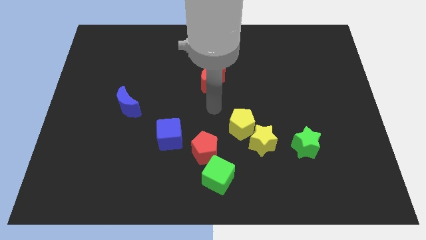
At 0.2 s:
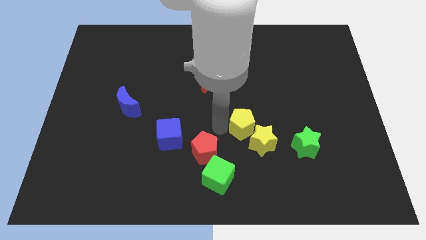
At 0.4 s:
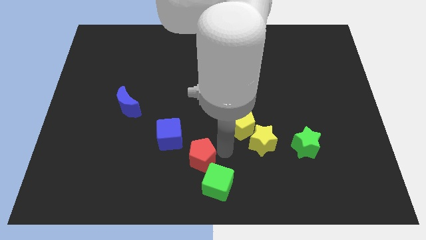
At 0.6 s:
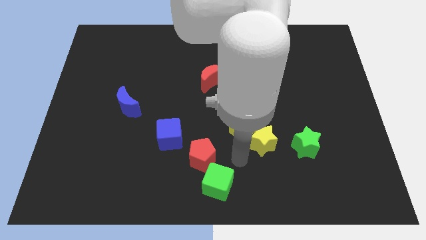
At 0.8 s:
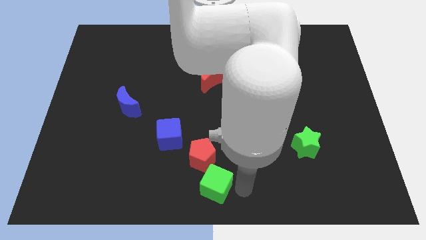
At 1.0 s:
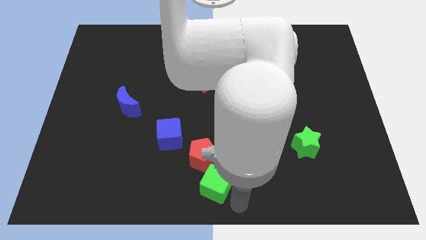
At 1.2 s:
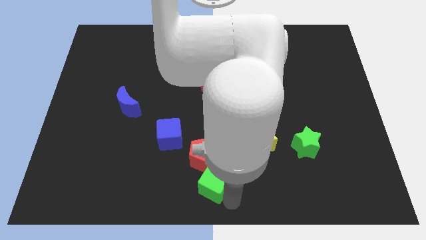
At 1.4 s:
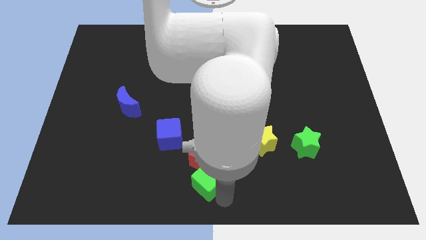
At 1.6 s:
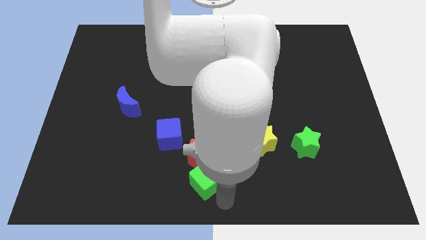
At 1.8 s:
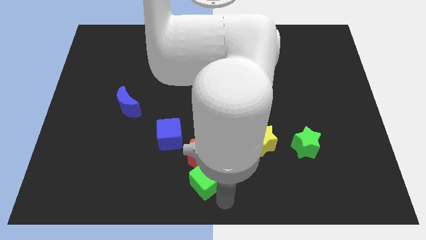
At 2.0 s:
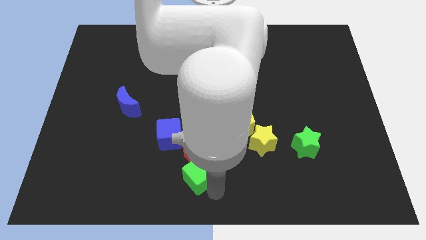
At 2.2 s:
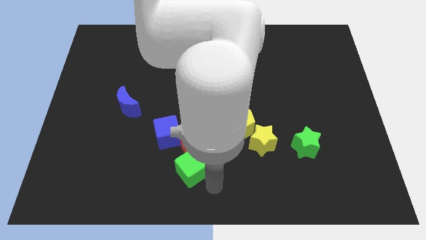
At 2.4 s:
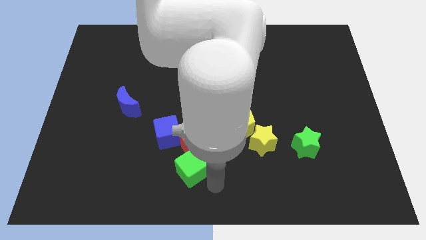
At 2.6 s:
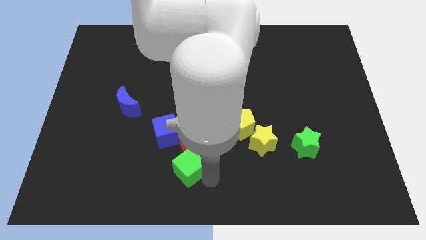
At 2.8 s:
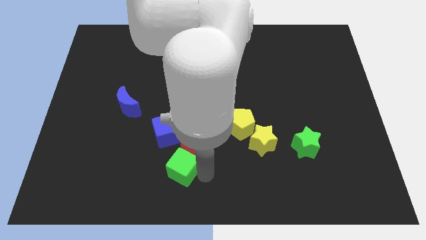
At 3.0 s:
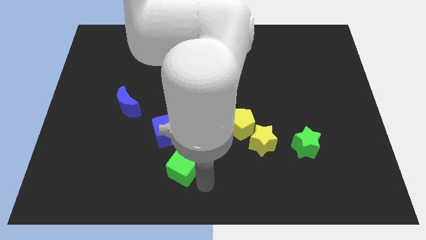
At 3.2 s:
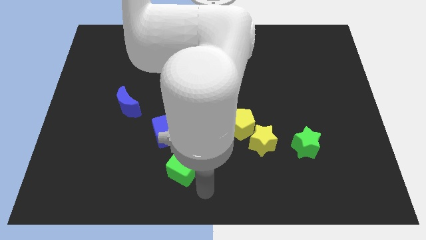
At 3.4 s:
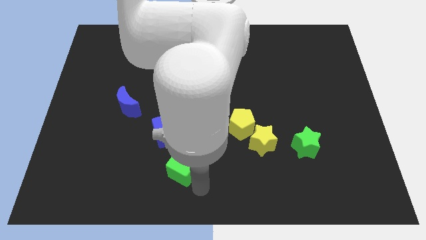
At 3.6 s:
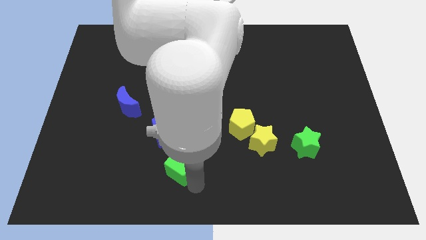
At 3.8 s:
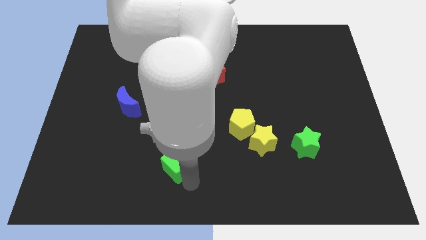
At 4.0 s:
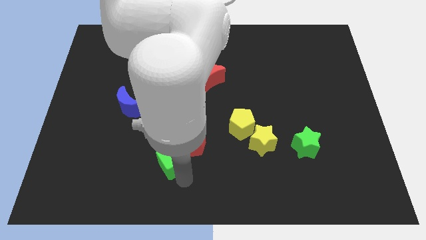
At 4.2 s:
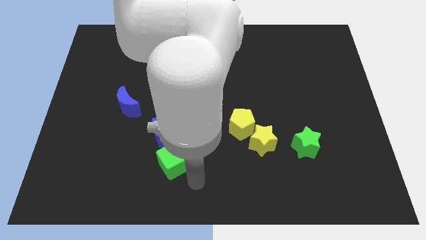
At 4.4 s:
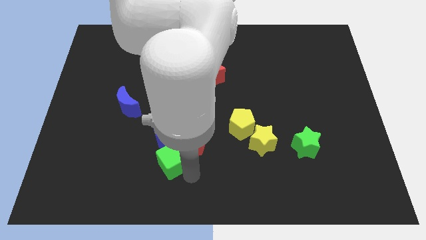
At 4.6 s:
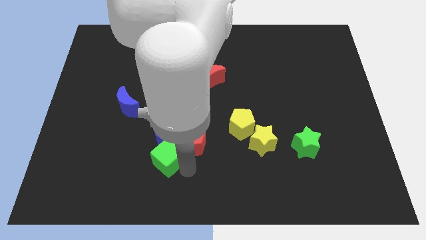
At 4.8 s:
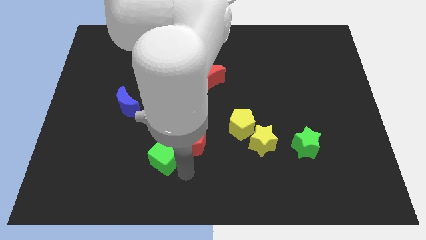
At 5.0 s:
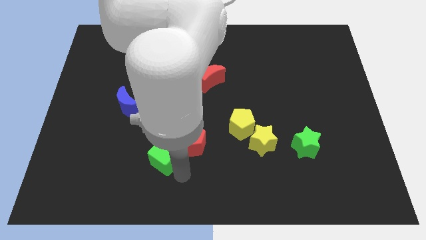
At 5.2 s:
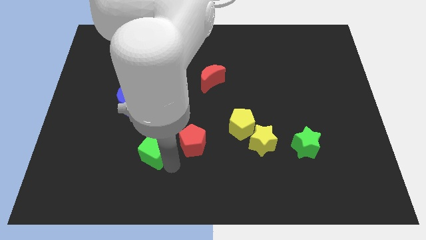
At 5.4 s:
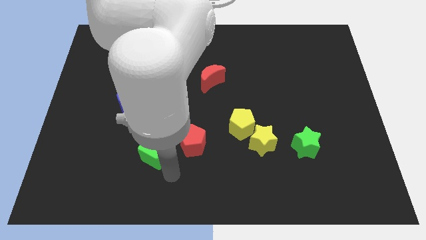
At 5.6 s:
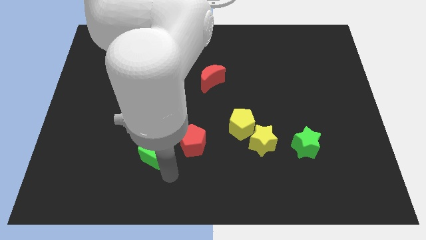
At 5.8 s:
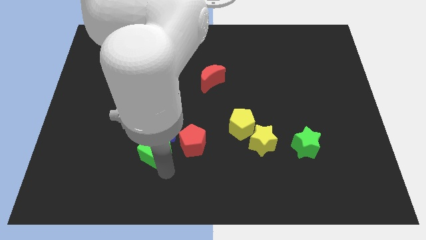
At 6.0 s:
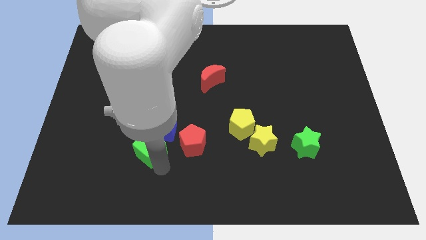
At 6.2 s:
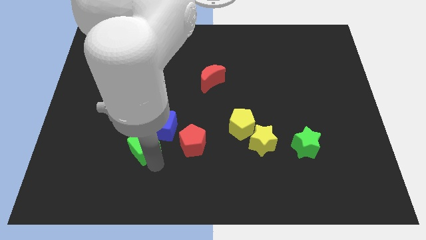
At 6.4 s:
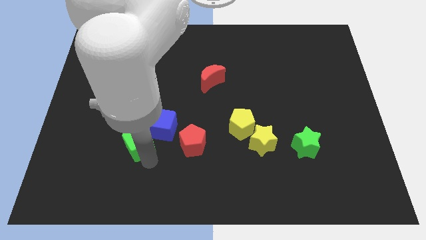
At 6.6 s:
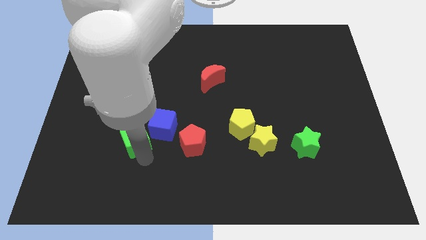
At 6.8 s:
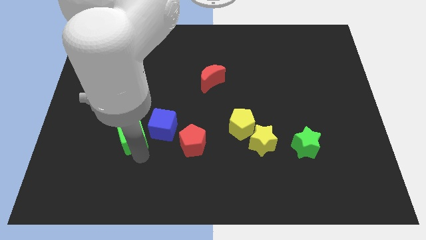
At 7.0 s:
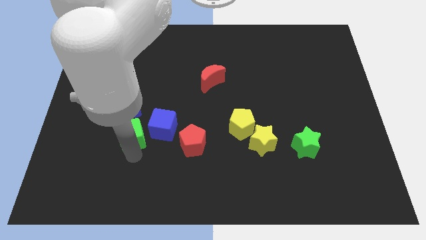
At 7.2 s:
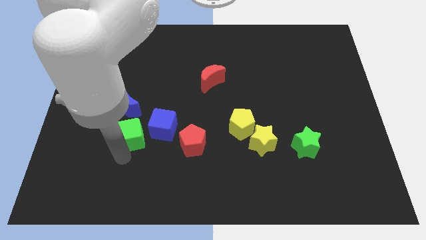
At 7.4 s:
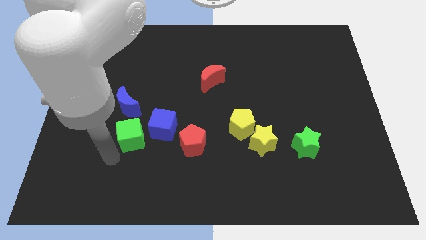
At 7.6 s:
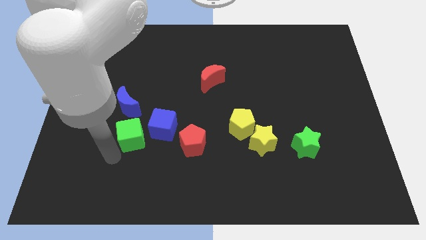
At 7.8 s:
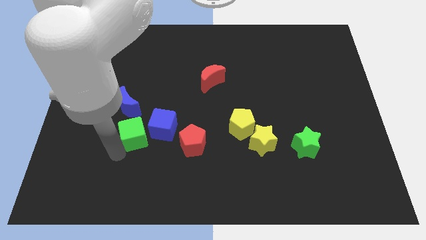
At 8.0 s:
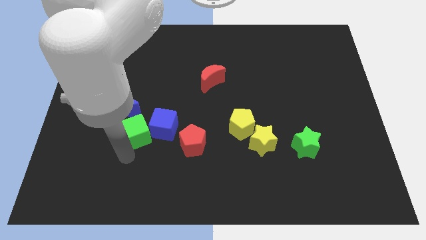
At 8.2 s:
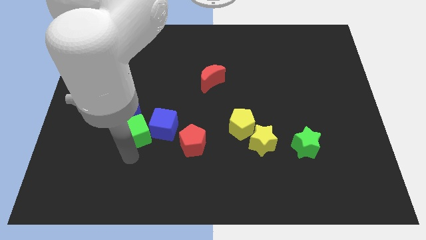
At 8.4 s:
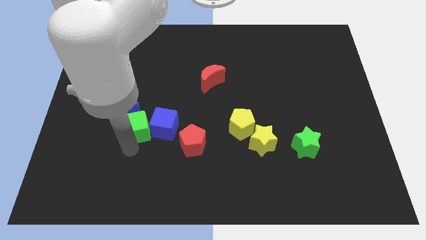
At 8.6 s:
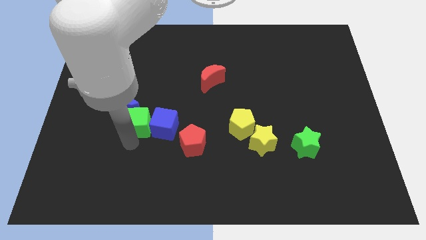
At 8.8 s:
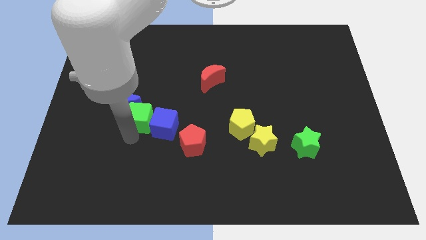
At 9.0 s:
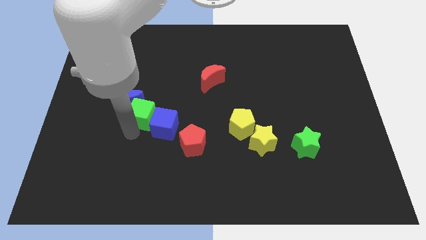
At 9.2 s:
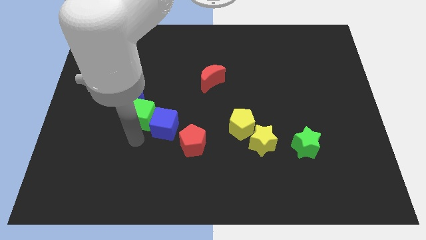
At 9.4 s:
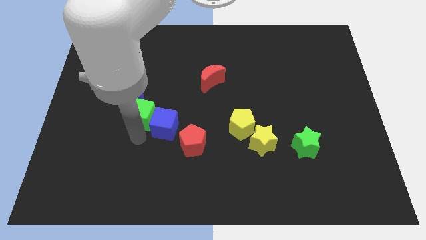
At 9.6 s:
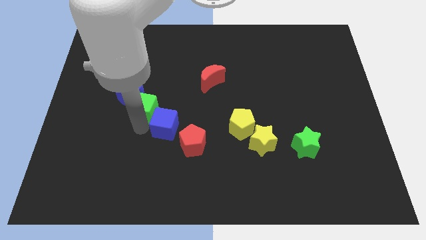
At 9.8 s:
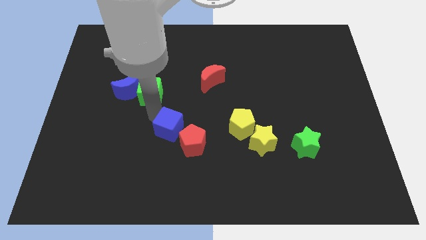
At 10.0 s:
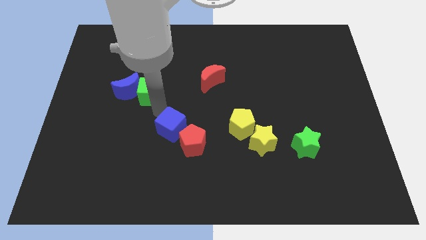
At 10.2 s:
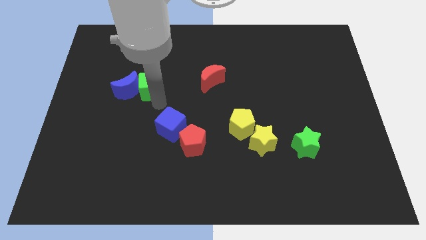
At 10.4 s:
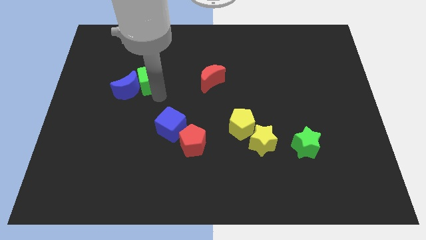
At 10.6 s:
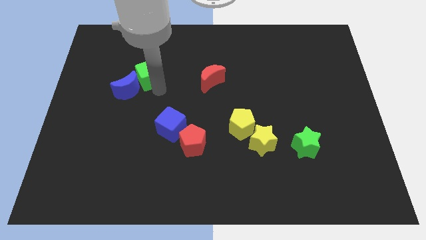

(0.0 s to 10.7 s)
push the green cube to the top side of the blue moon

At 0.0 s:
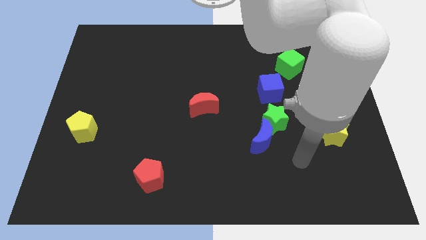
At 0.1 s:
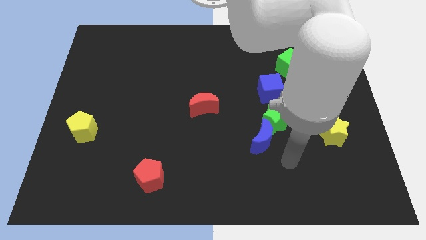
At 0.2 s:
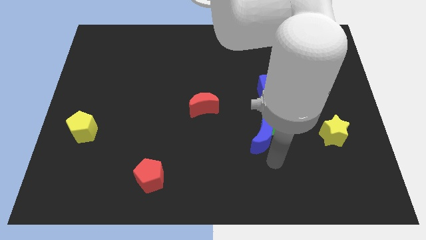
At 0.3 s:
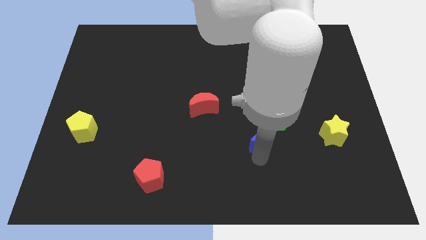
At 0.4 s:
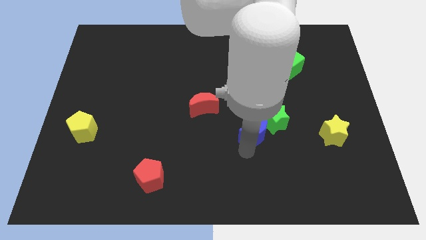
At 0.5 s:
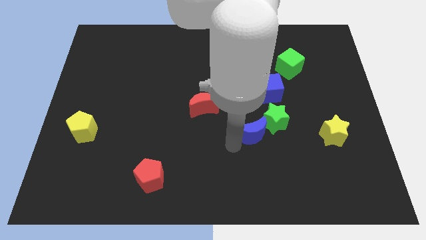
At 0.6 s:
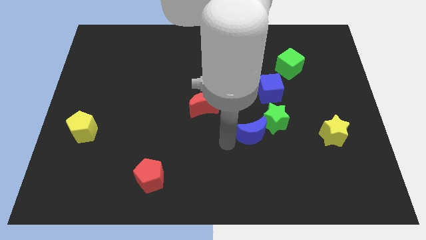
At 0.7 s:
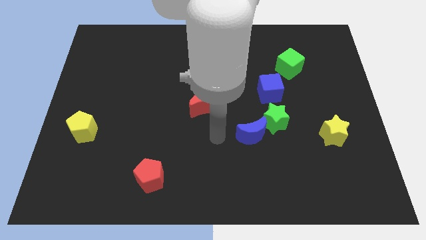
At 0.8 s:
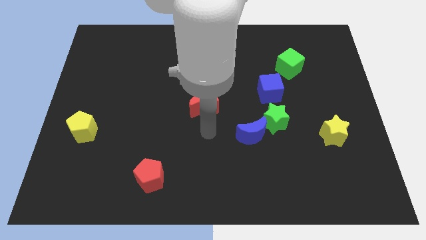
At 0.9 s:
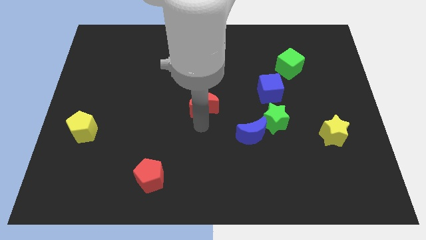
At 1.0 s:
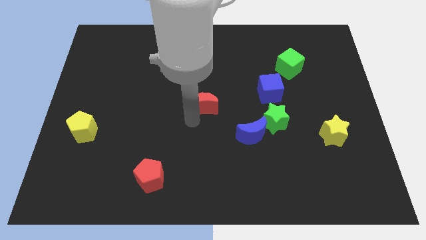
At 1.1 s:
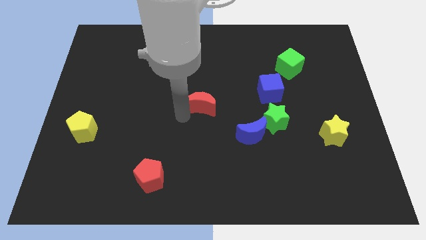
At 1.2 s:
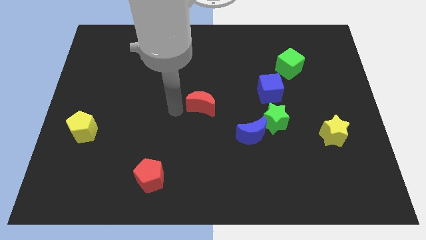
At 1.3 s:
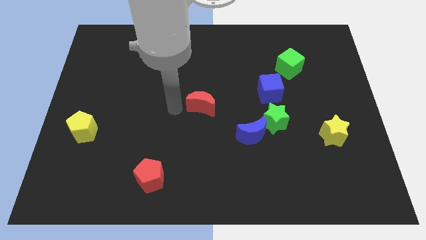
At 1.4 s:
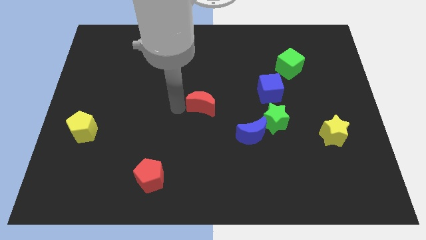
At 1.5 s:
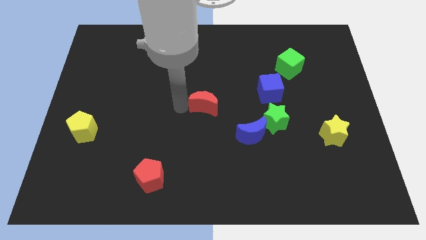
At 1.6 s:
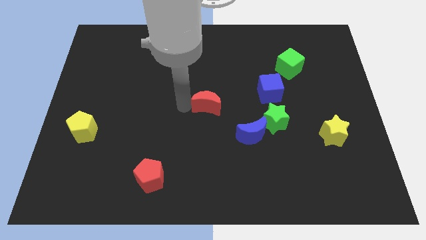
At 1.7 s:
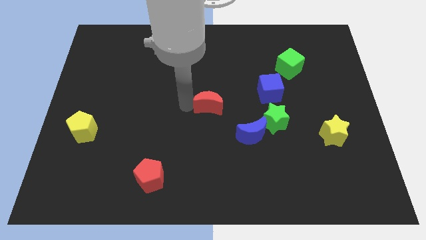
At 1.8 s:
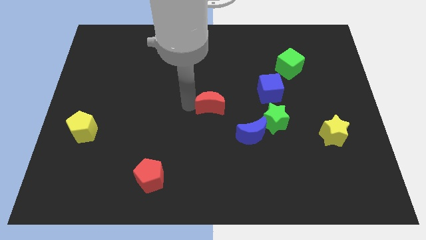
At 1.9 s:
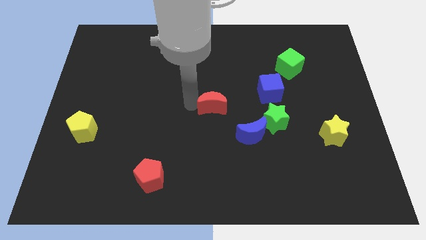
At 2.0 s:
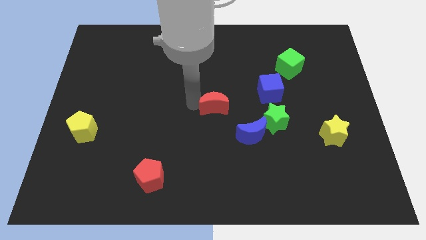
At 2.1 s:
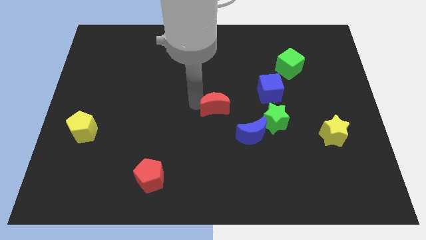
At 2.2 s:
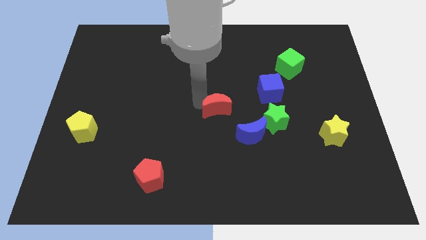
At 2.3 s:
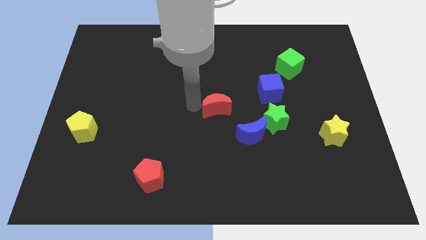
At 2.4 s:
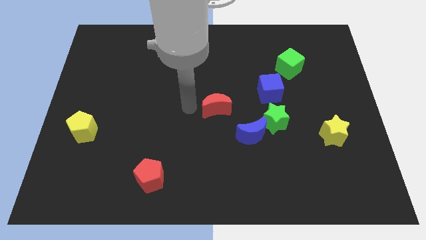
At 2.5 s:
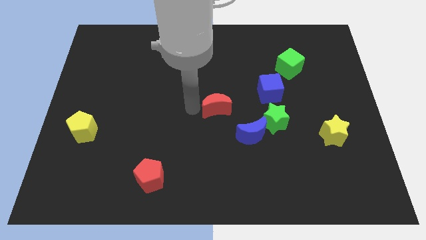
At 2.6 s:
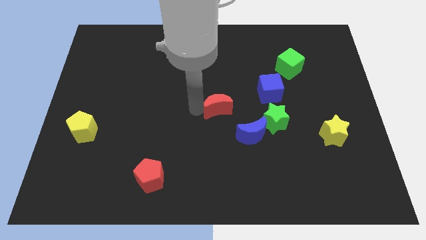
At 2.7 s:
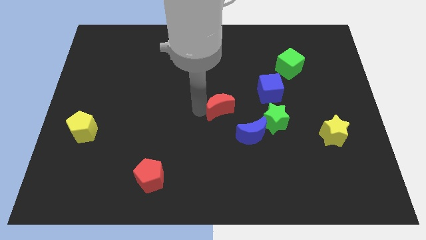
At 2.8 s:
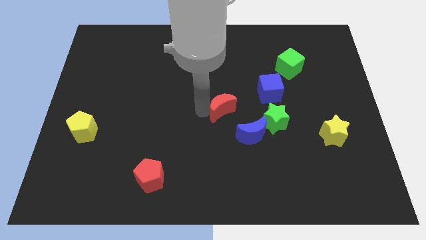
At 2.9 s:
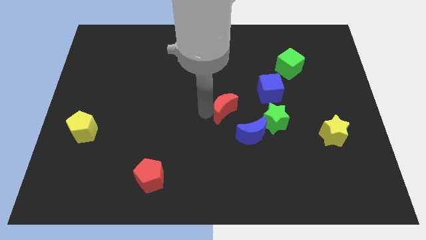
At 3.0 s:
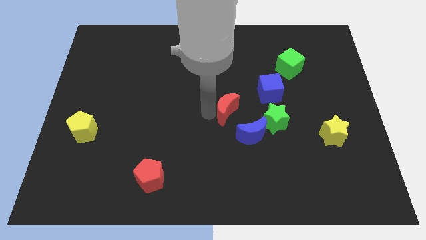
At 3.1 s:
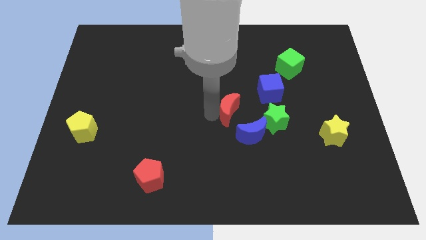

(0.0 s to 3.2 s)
move the red moon diagonally down and to the left of the blue cube
